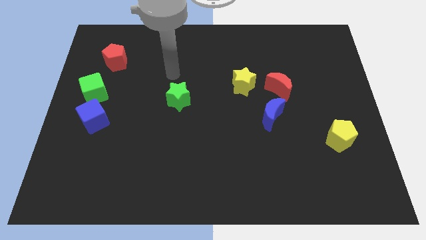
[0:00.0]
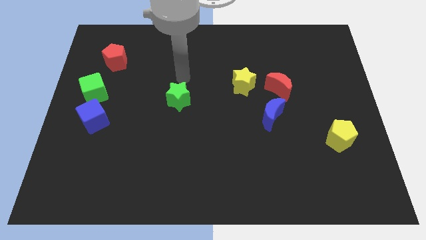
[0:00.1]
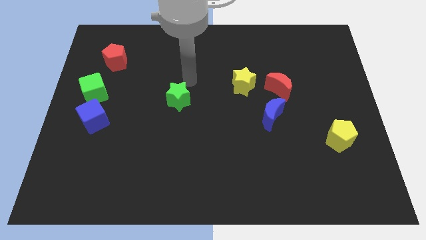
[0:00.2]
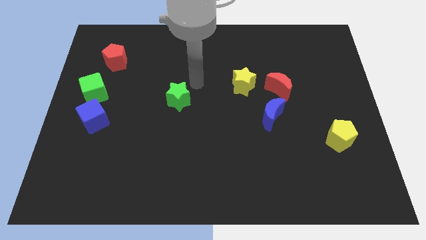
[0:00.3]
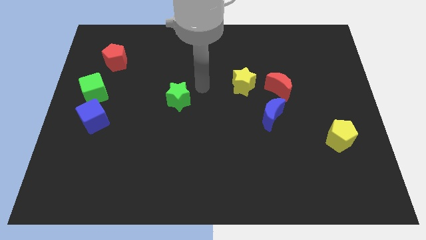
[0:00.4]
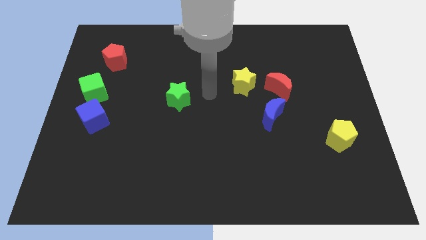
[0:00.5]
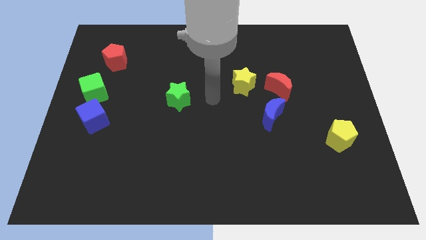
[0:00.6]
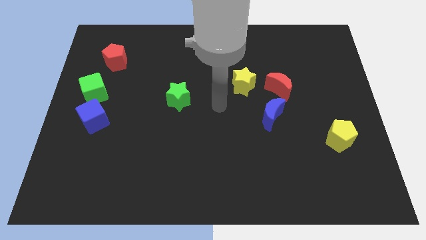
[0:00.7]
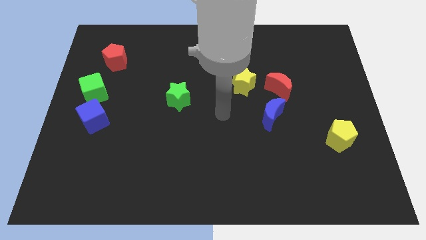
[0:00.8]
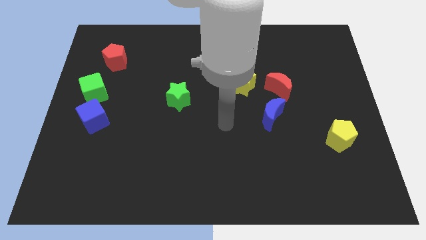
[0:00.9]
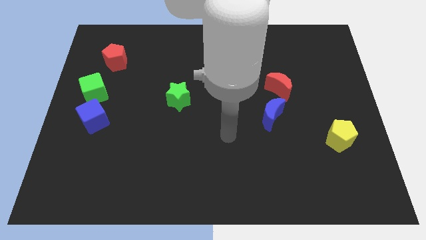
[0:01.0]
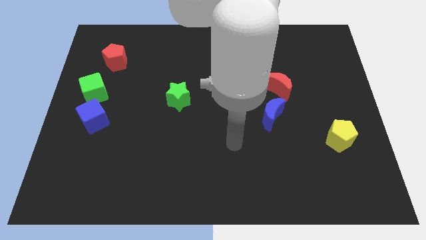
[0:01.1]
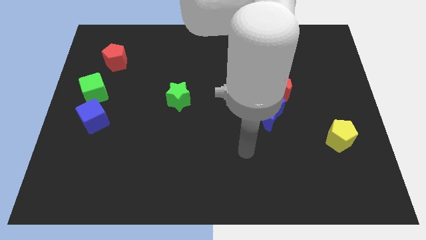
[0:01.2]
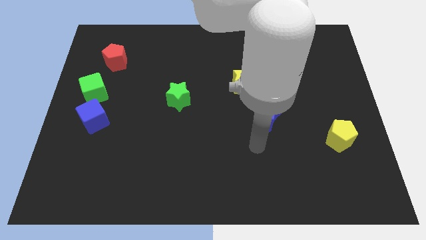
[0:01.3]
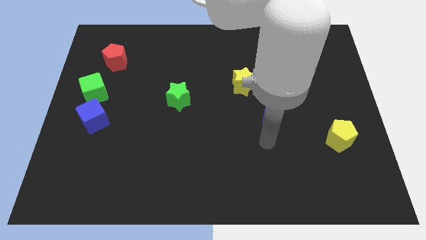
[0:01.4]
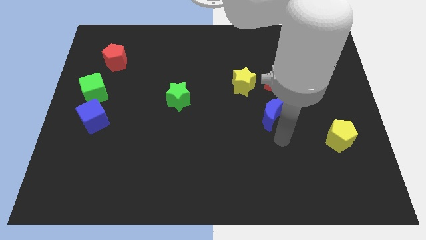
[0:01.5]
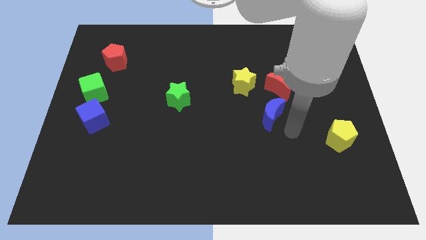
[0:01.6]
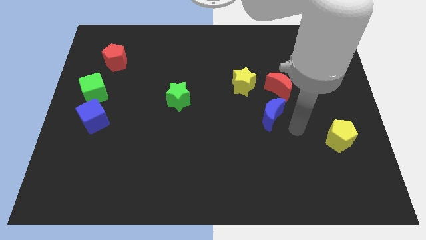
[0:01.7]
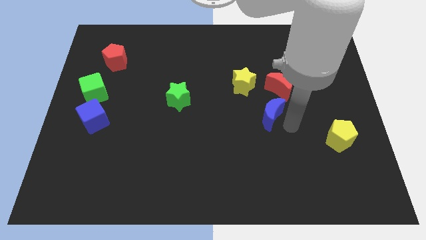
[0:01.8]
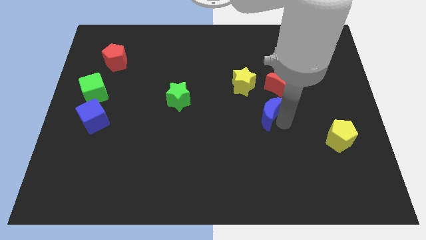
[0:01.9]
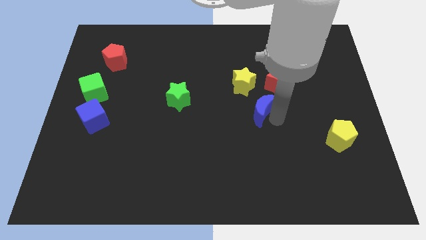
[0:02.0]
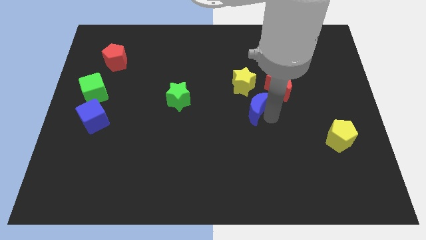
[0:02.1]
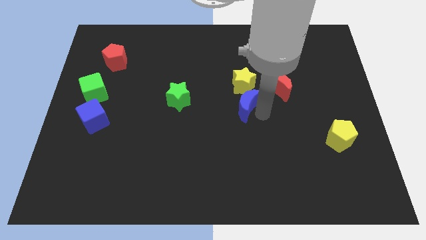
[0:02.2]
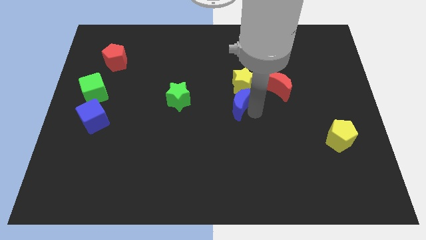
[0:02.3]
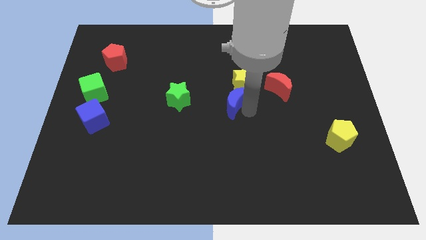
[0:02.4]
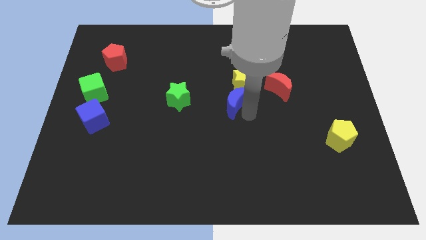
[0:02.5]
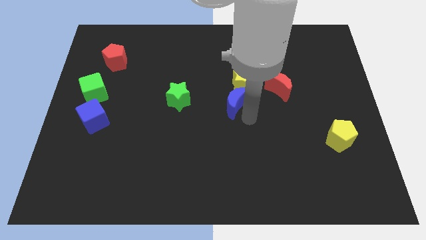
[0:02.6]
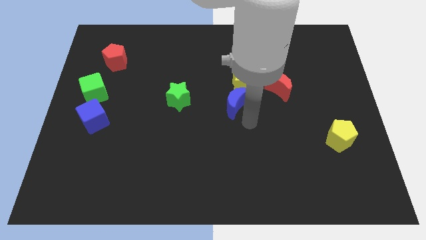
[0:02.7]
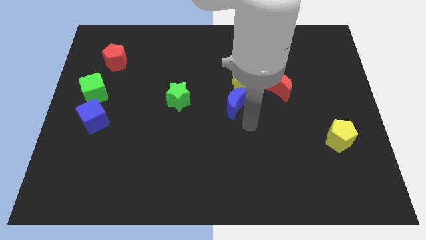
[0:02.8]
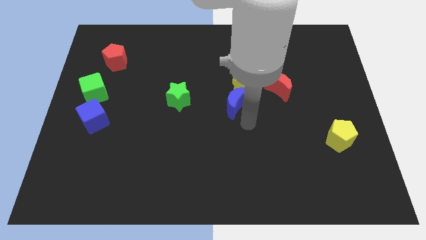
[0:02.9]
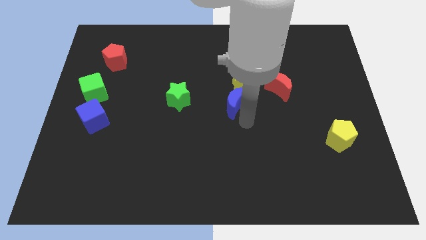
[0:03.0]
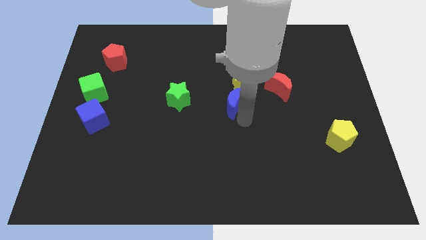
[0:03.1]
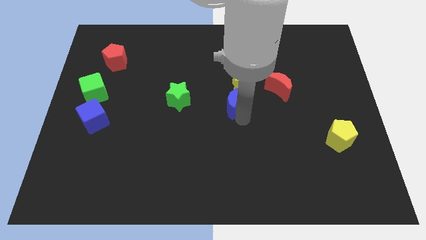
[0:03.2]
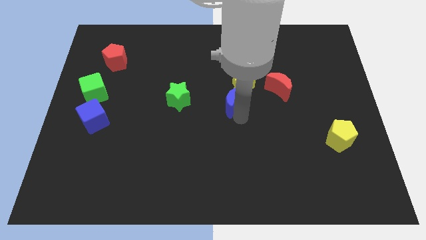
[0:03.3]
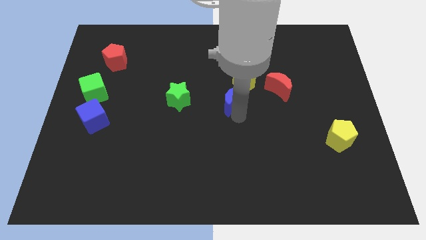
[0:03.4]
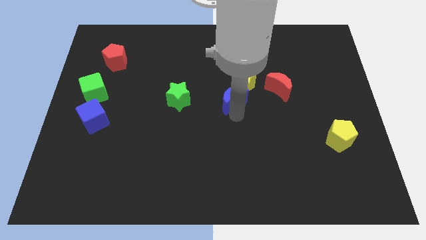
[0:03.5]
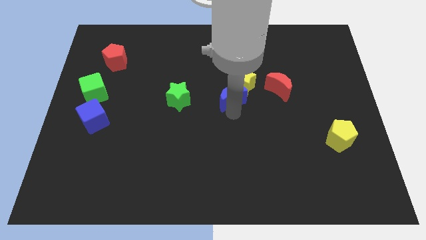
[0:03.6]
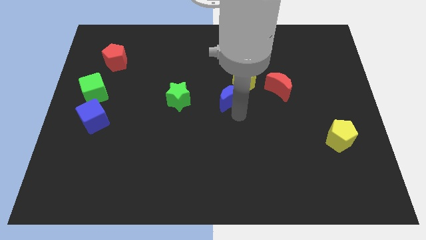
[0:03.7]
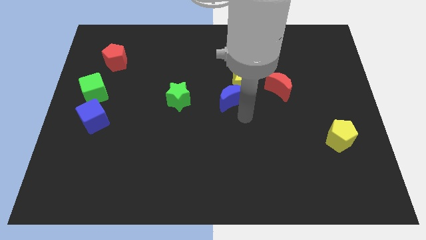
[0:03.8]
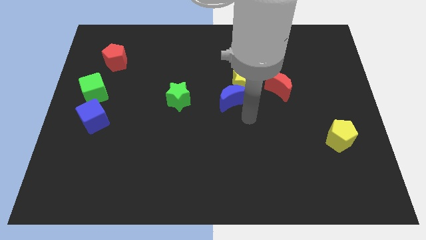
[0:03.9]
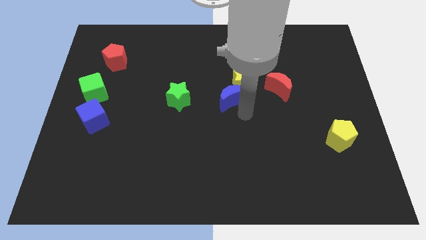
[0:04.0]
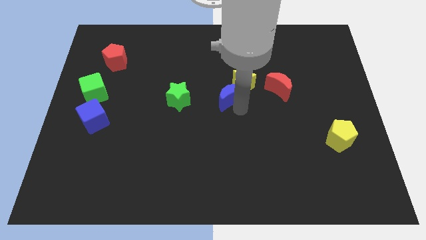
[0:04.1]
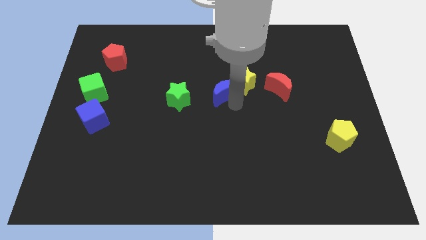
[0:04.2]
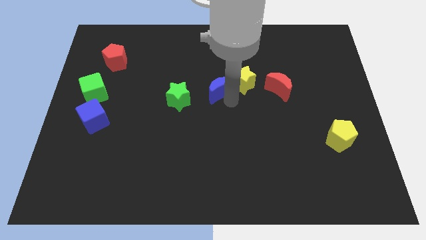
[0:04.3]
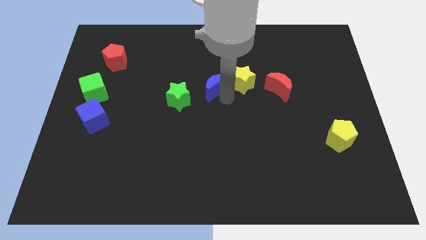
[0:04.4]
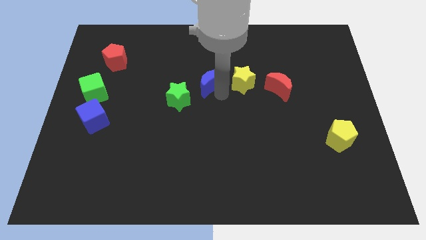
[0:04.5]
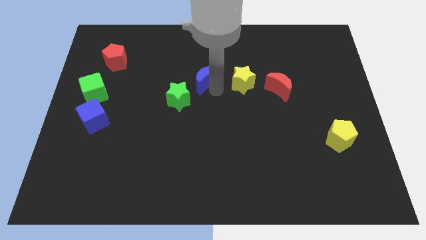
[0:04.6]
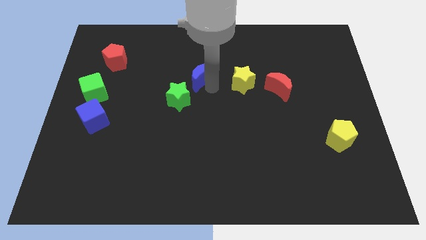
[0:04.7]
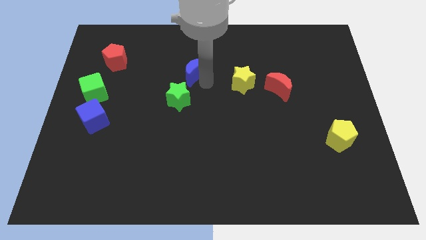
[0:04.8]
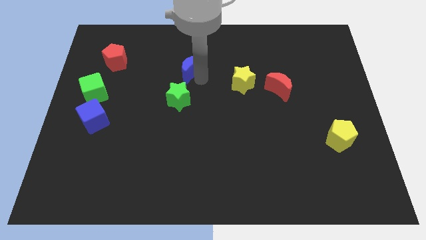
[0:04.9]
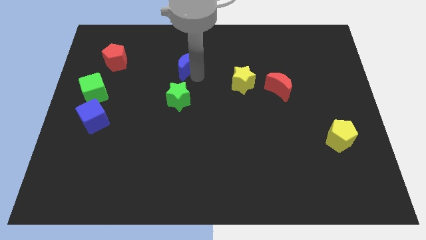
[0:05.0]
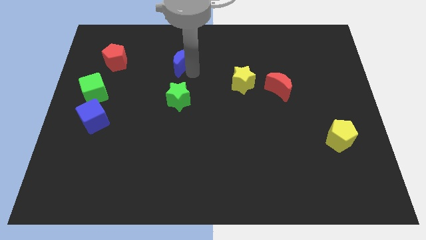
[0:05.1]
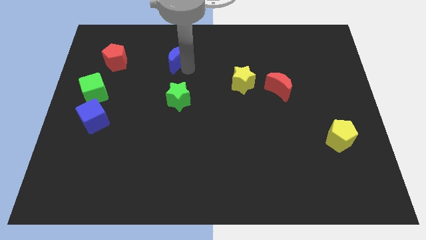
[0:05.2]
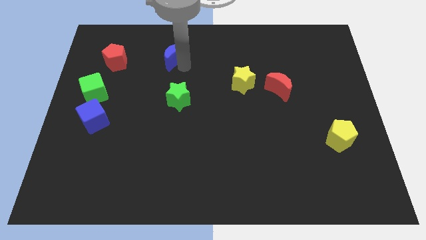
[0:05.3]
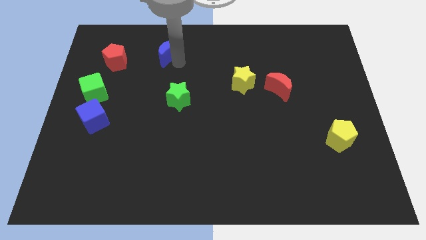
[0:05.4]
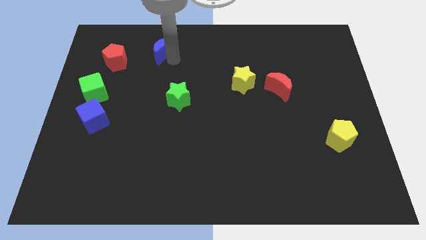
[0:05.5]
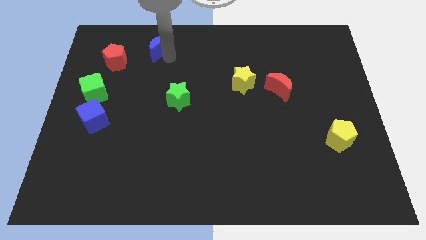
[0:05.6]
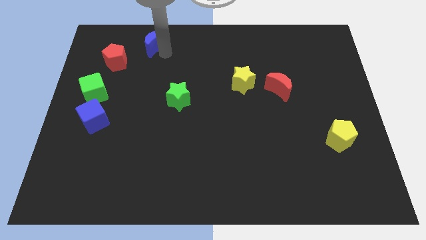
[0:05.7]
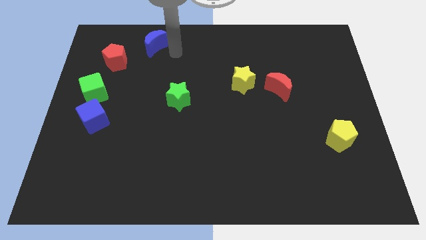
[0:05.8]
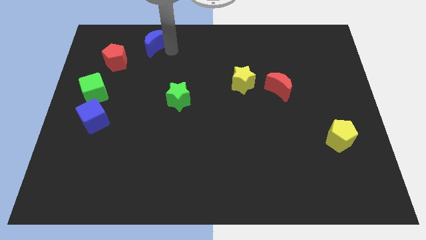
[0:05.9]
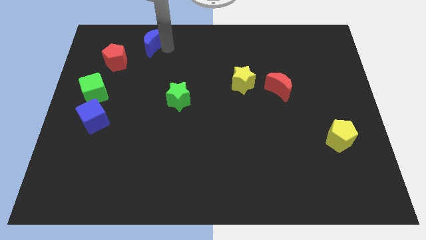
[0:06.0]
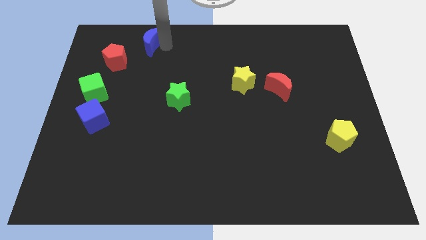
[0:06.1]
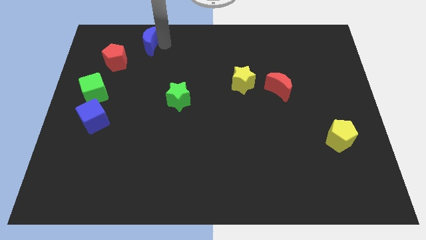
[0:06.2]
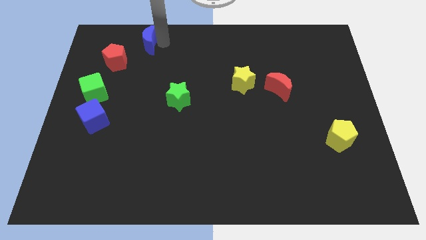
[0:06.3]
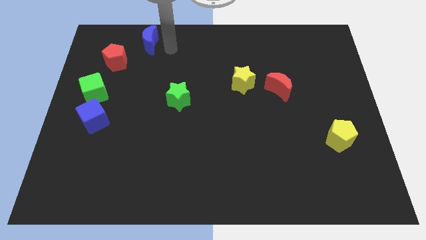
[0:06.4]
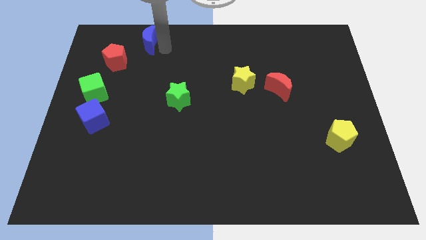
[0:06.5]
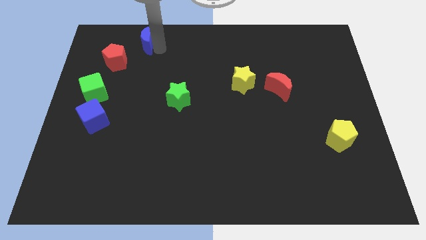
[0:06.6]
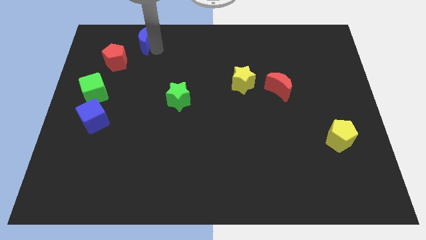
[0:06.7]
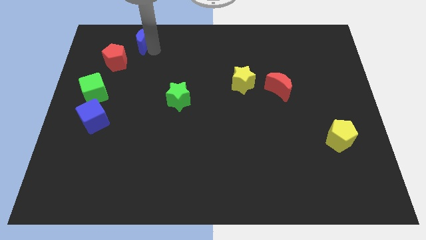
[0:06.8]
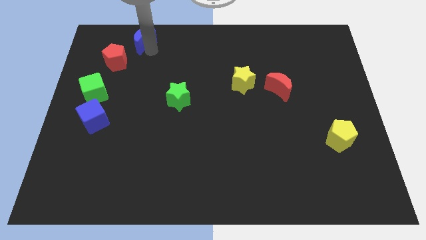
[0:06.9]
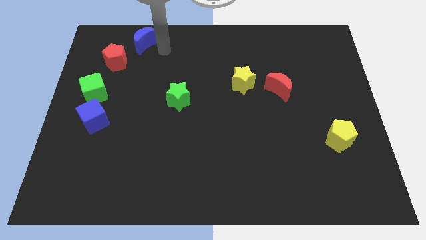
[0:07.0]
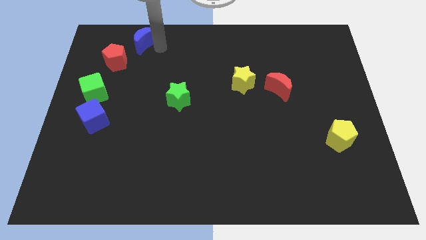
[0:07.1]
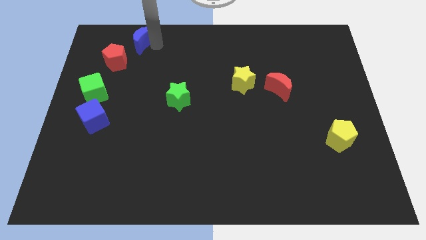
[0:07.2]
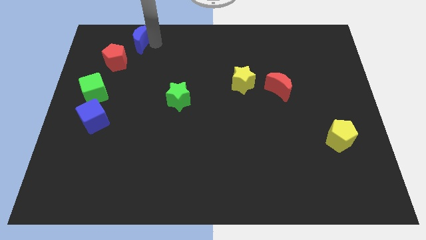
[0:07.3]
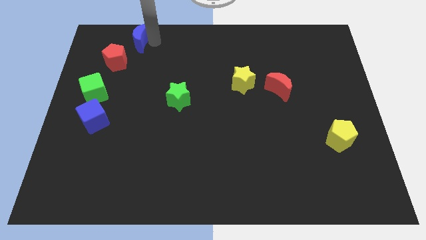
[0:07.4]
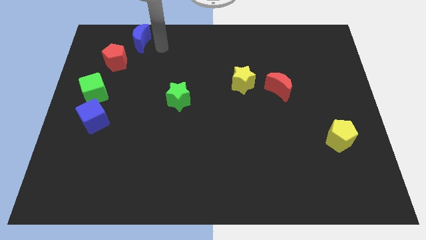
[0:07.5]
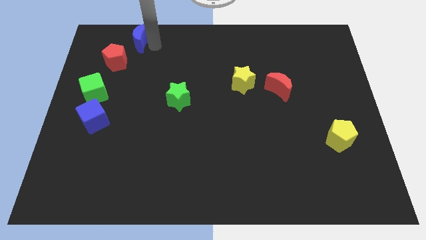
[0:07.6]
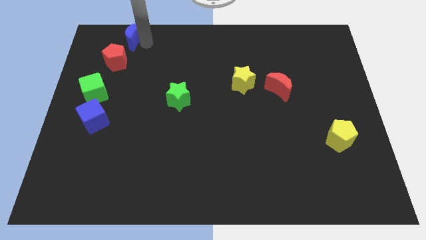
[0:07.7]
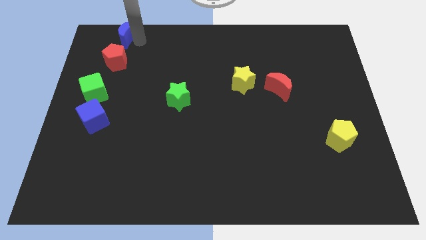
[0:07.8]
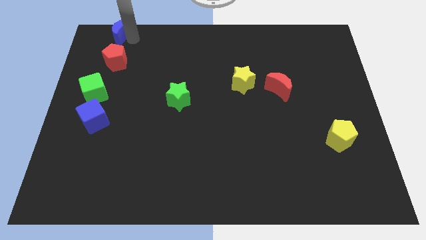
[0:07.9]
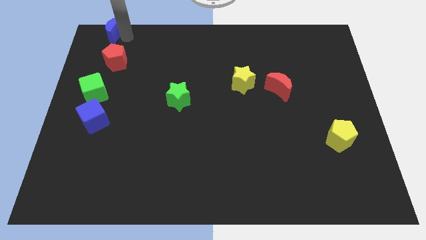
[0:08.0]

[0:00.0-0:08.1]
move the blue moon to the top left corner
